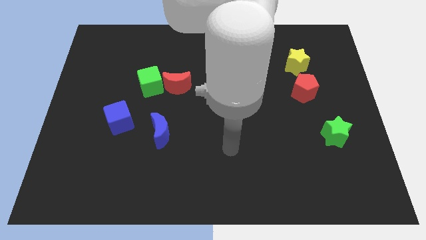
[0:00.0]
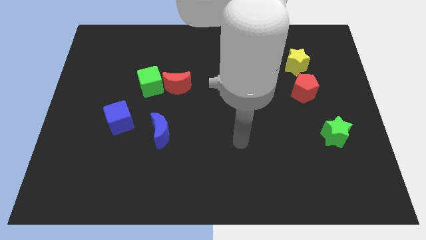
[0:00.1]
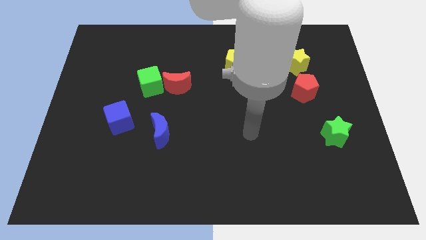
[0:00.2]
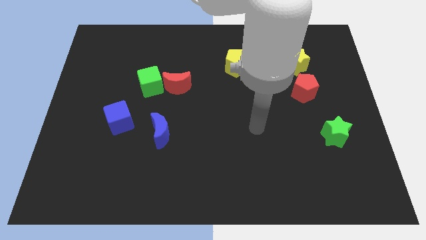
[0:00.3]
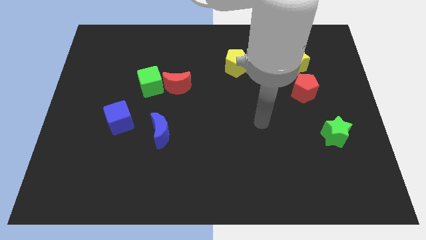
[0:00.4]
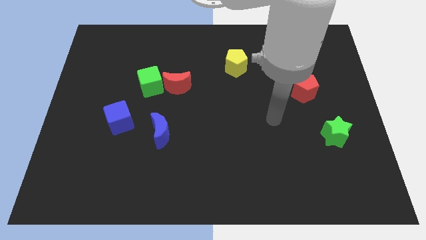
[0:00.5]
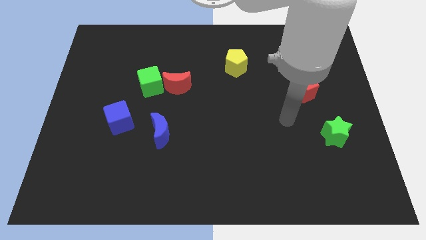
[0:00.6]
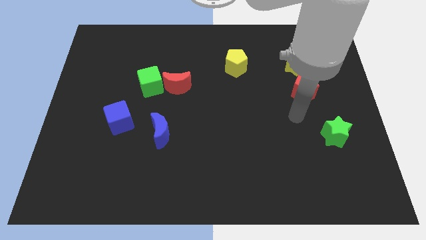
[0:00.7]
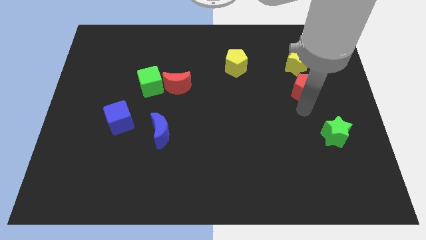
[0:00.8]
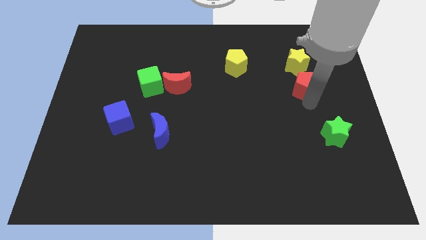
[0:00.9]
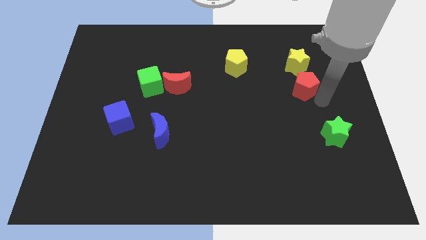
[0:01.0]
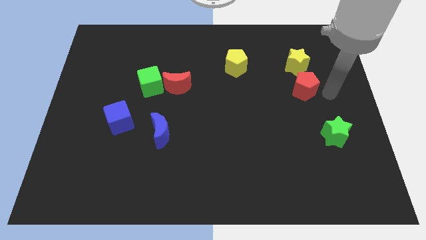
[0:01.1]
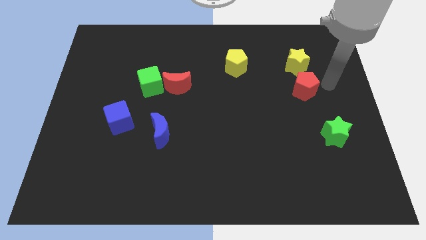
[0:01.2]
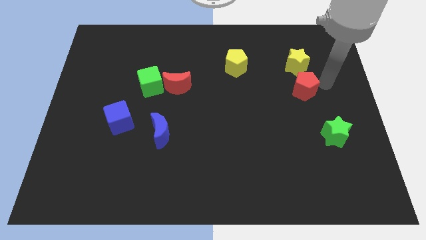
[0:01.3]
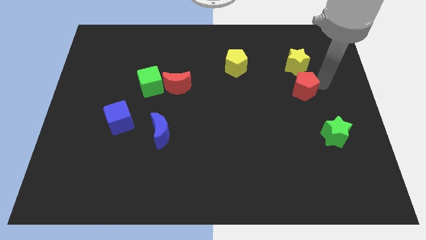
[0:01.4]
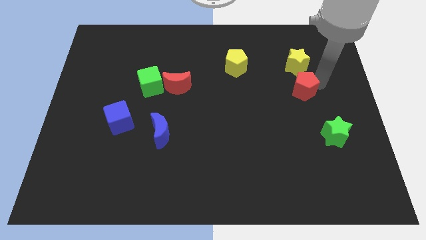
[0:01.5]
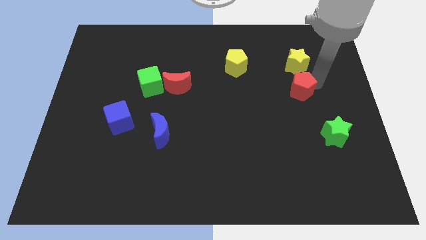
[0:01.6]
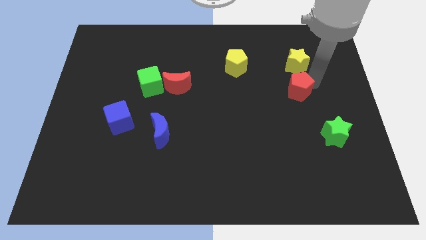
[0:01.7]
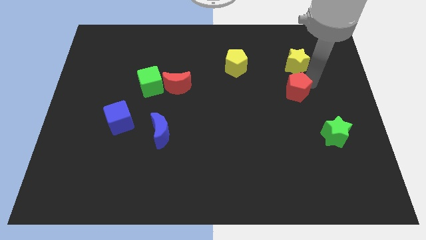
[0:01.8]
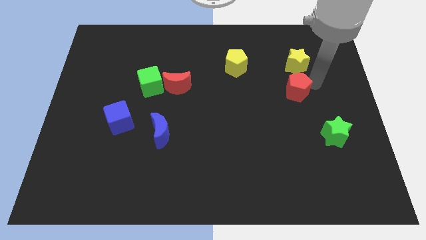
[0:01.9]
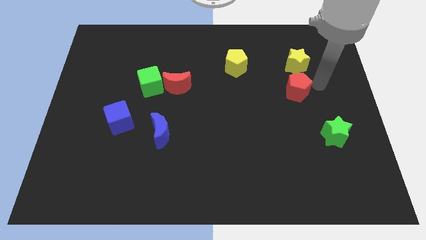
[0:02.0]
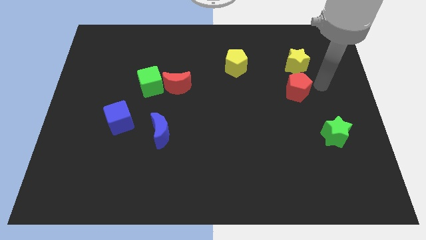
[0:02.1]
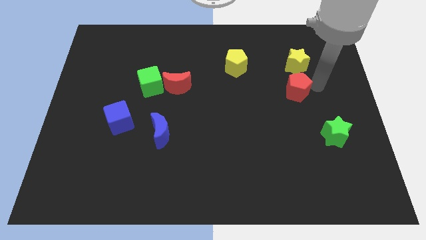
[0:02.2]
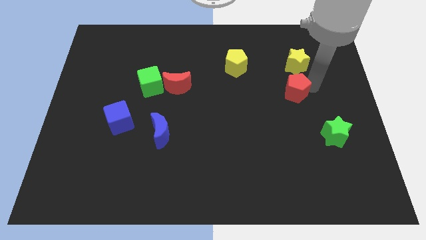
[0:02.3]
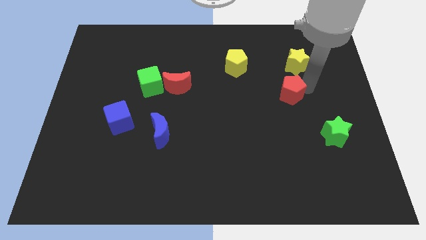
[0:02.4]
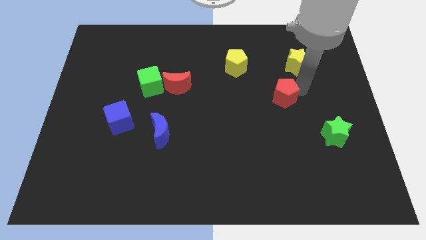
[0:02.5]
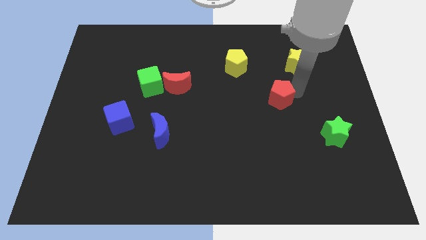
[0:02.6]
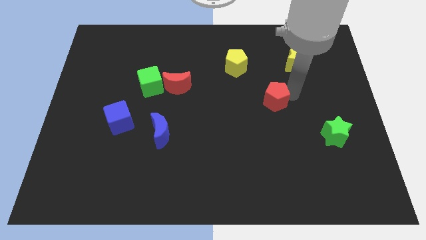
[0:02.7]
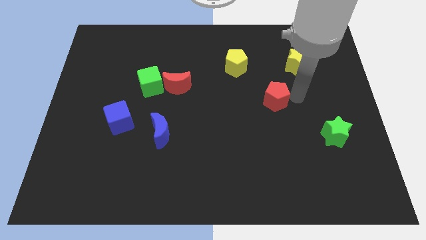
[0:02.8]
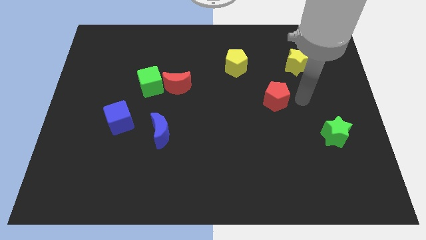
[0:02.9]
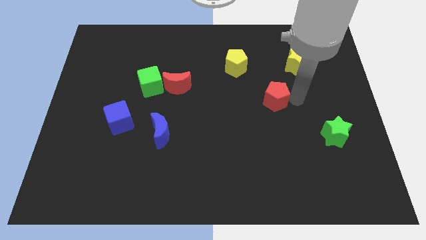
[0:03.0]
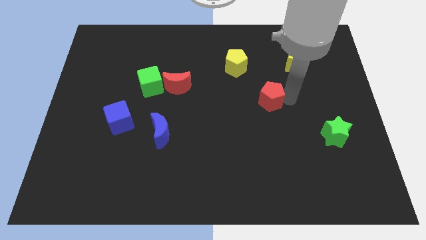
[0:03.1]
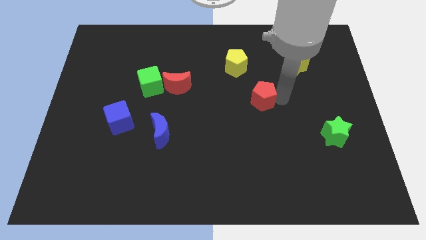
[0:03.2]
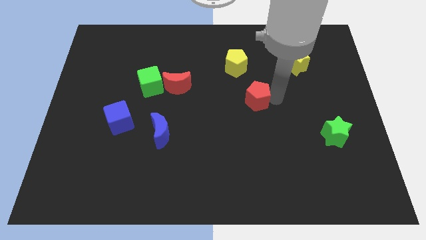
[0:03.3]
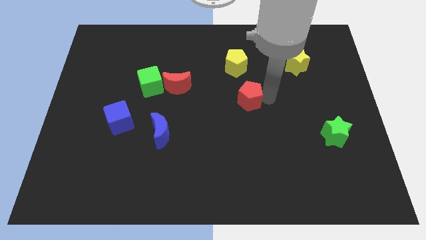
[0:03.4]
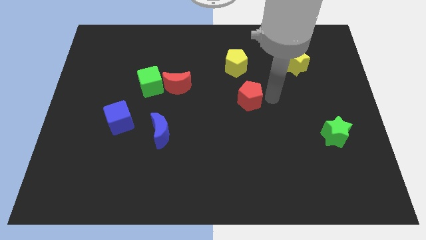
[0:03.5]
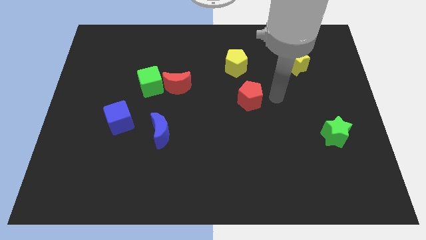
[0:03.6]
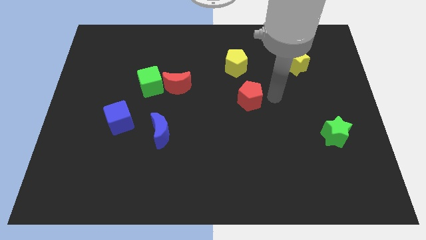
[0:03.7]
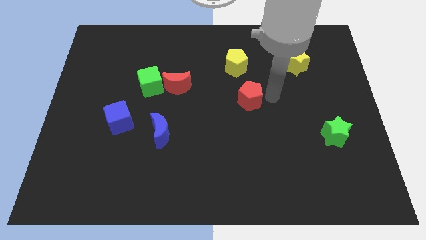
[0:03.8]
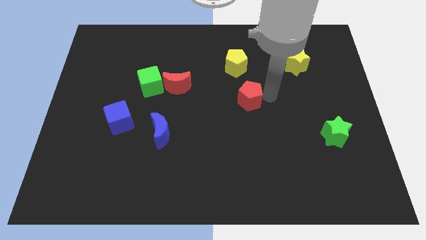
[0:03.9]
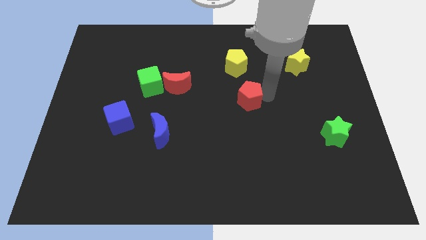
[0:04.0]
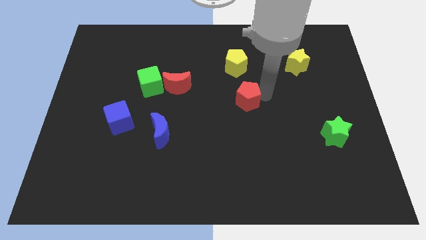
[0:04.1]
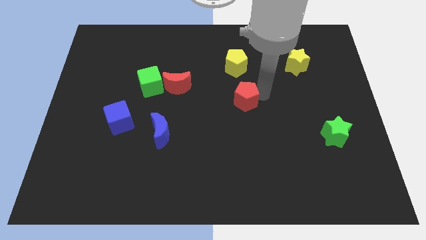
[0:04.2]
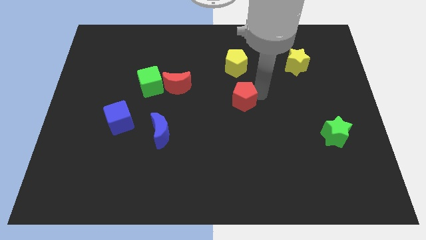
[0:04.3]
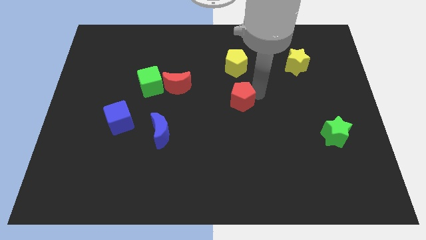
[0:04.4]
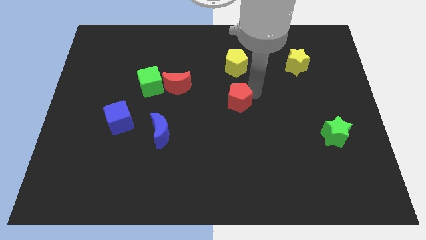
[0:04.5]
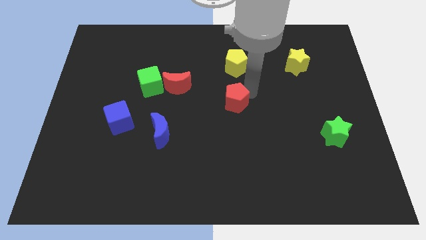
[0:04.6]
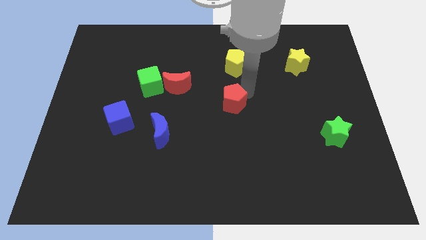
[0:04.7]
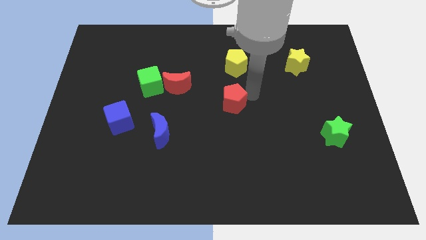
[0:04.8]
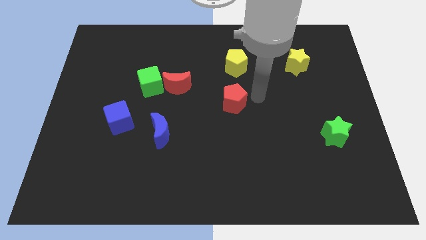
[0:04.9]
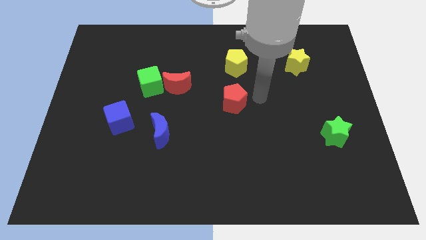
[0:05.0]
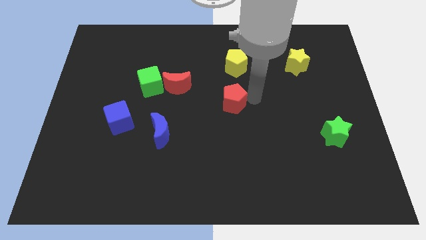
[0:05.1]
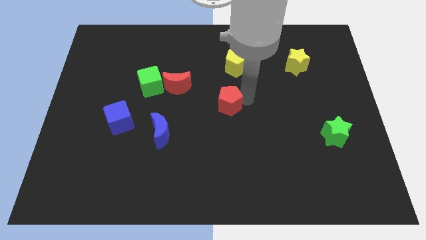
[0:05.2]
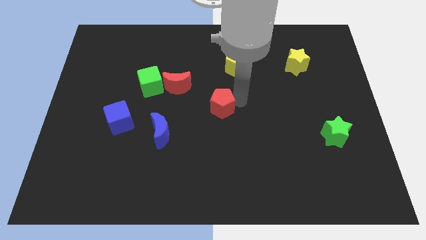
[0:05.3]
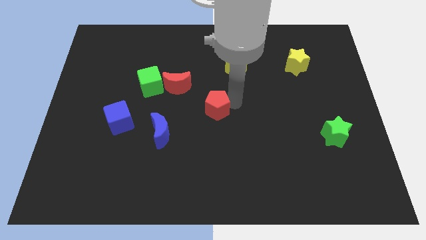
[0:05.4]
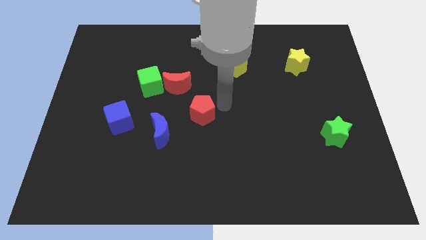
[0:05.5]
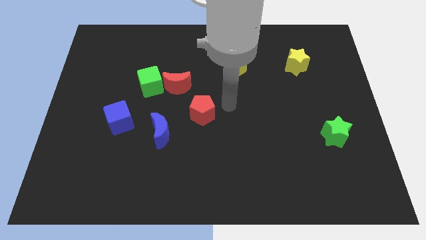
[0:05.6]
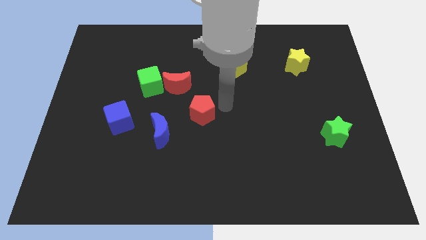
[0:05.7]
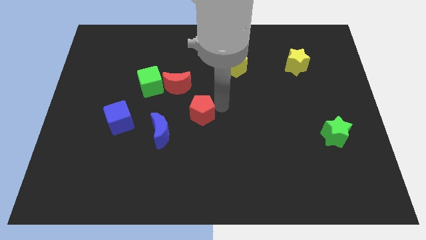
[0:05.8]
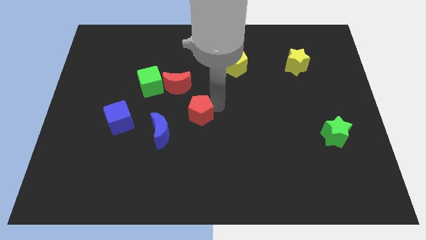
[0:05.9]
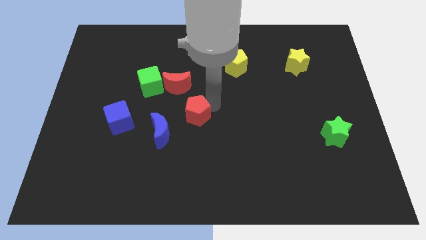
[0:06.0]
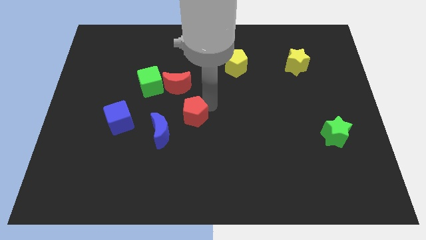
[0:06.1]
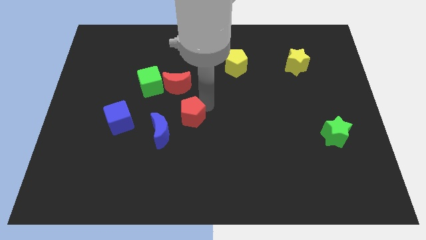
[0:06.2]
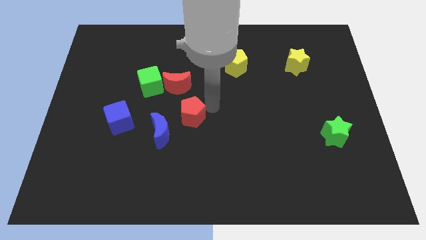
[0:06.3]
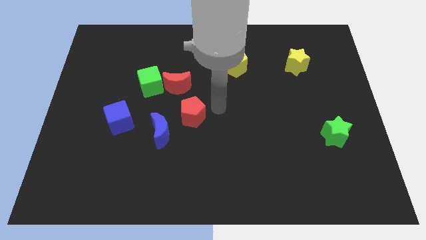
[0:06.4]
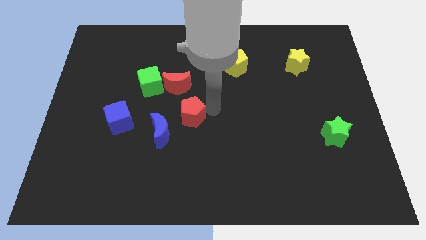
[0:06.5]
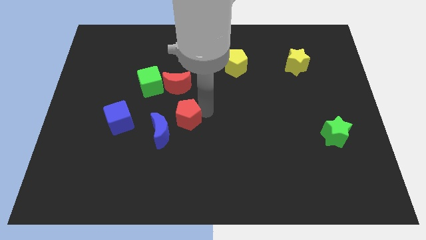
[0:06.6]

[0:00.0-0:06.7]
slide the red pentagon to the right of the blue cube
